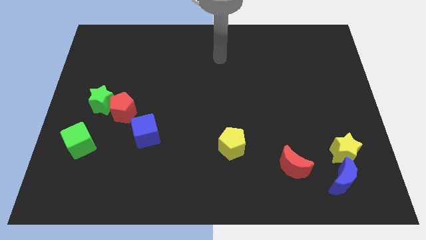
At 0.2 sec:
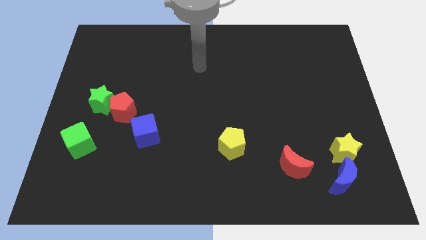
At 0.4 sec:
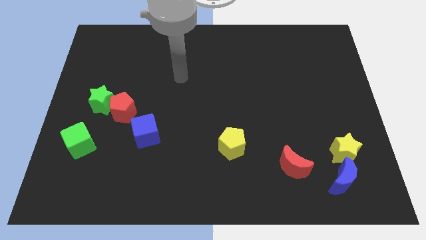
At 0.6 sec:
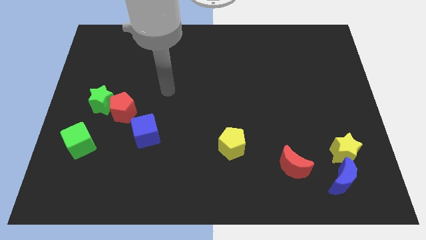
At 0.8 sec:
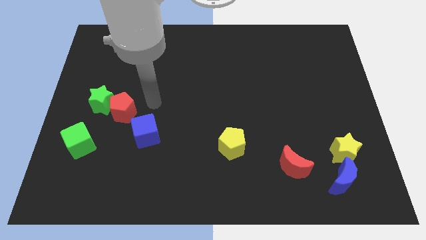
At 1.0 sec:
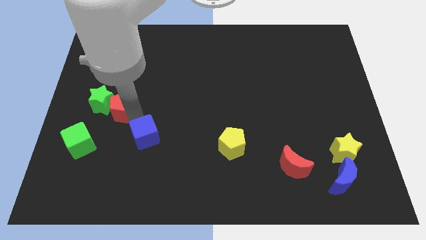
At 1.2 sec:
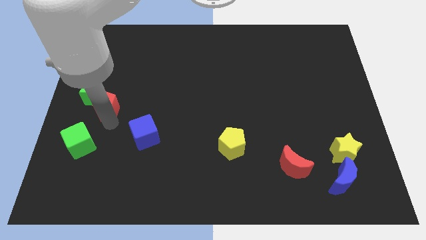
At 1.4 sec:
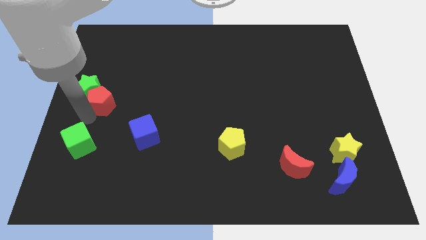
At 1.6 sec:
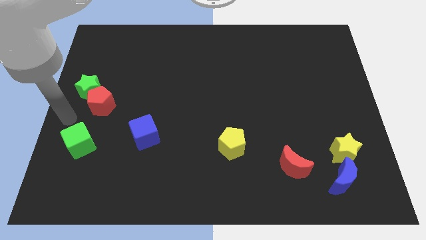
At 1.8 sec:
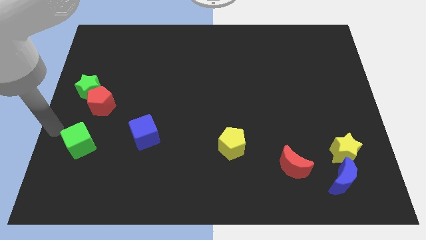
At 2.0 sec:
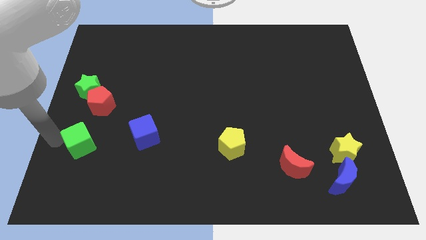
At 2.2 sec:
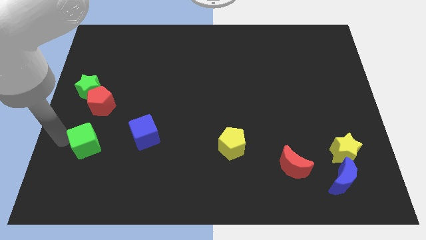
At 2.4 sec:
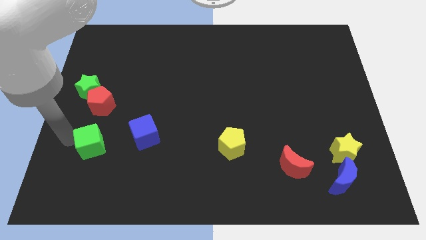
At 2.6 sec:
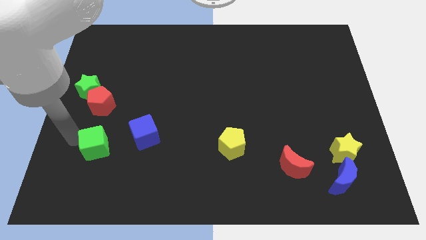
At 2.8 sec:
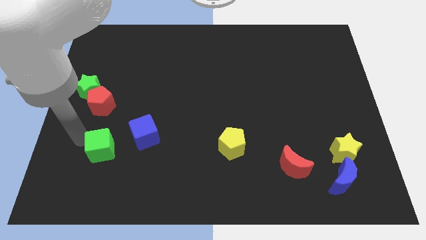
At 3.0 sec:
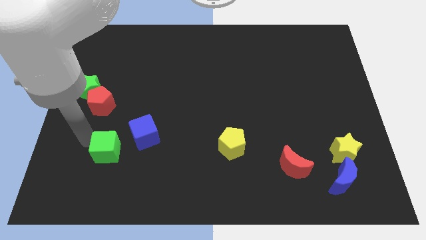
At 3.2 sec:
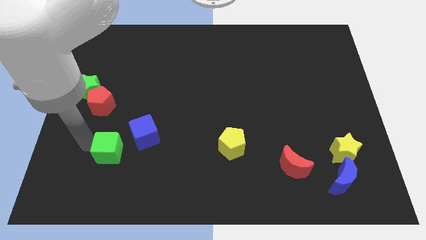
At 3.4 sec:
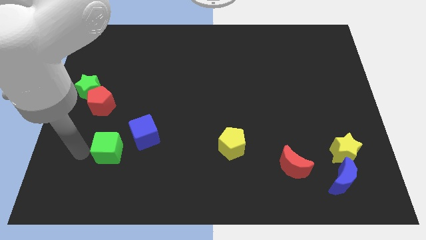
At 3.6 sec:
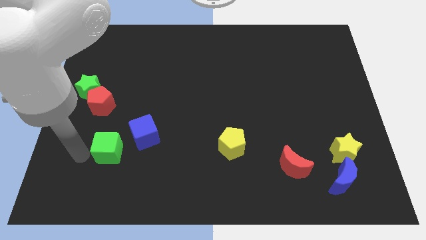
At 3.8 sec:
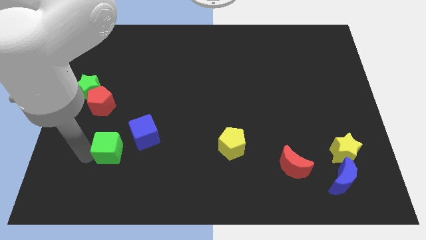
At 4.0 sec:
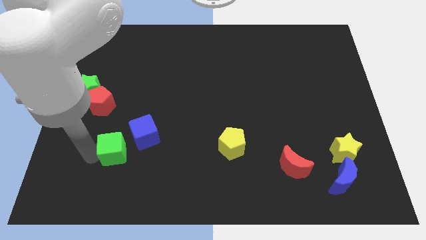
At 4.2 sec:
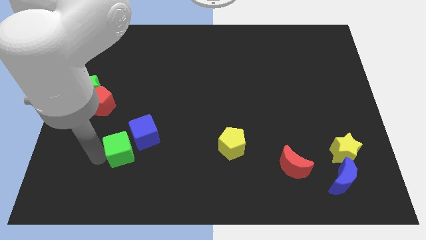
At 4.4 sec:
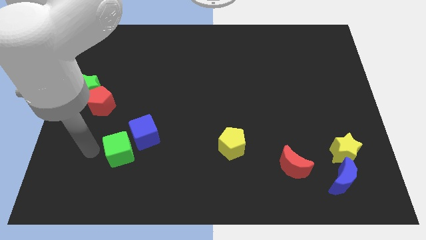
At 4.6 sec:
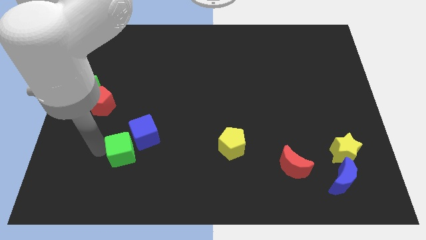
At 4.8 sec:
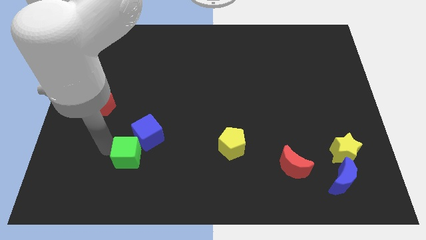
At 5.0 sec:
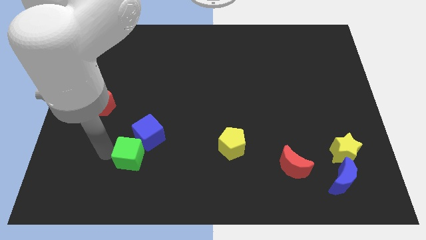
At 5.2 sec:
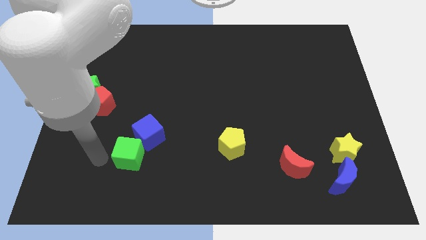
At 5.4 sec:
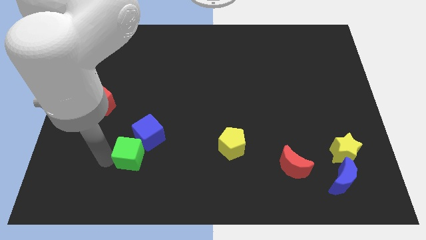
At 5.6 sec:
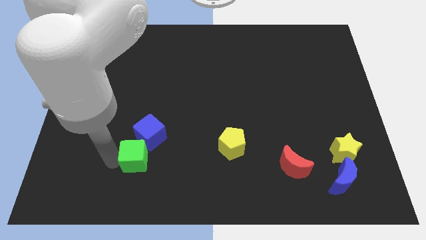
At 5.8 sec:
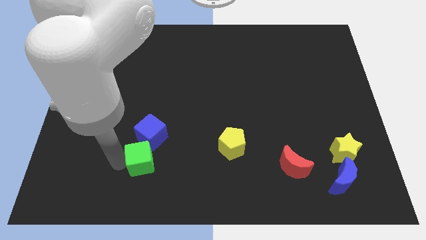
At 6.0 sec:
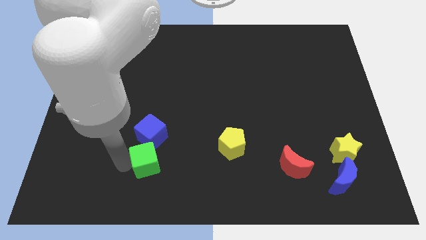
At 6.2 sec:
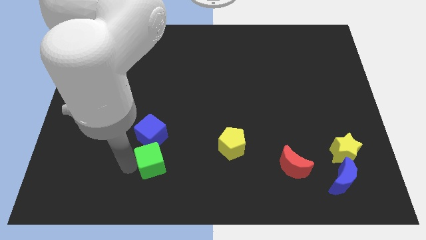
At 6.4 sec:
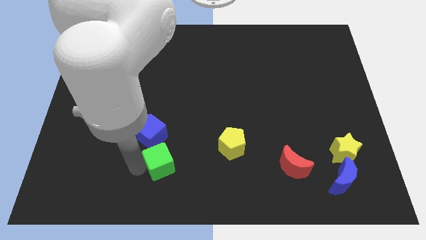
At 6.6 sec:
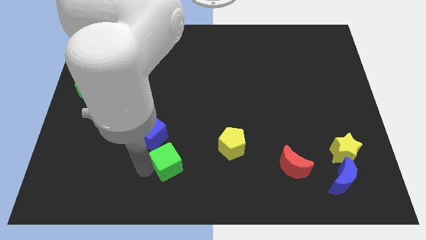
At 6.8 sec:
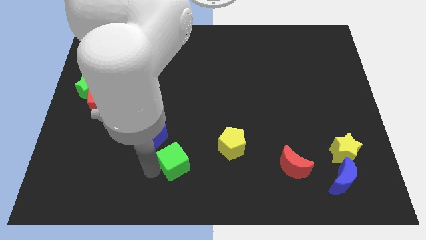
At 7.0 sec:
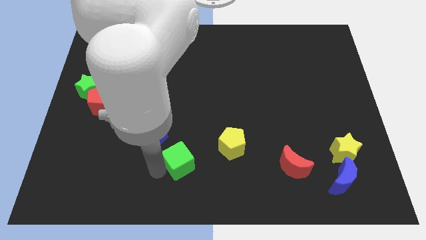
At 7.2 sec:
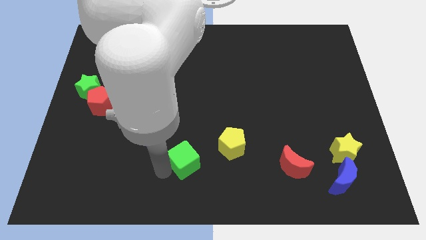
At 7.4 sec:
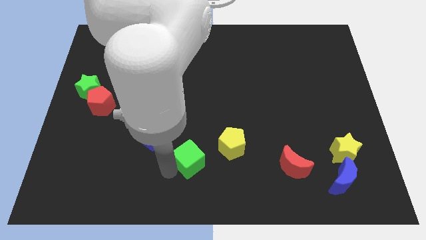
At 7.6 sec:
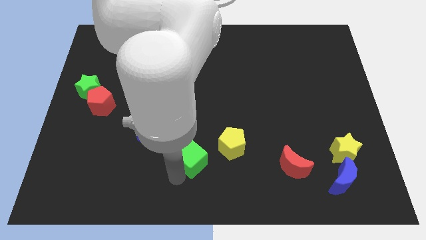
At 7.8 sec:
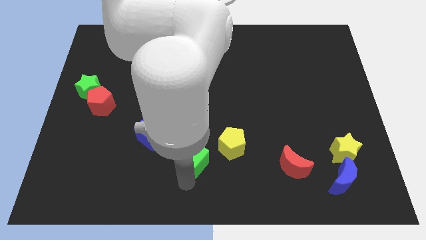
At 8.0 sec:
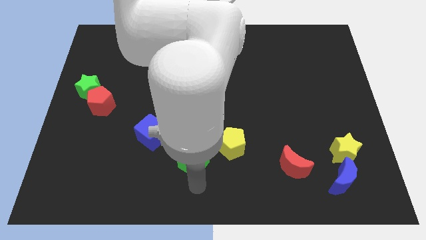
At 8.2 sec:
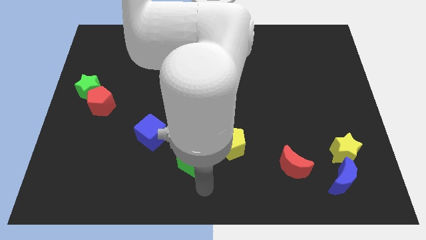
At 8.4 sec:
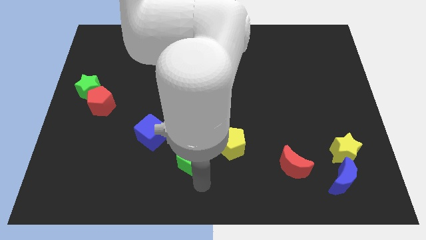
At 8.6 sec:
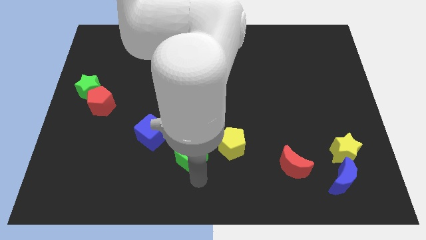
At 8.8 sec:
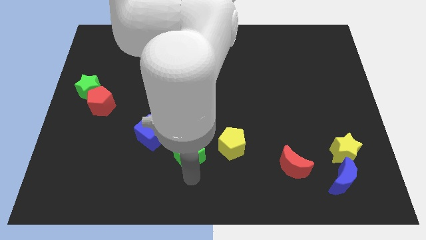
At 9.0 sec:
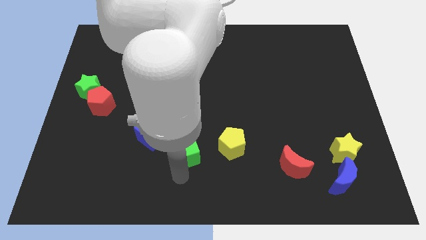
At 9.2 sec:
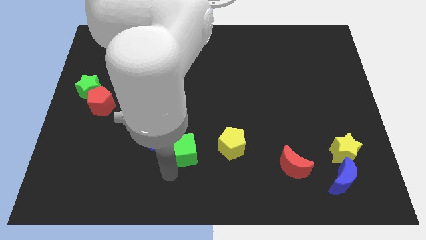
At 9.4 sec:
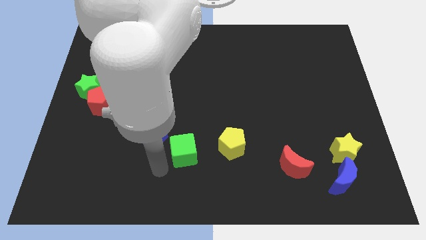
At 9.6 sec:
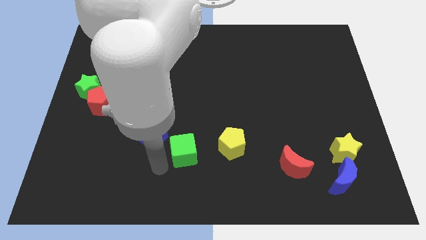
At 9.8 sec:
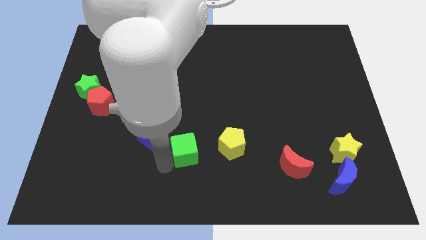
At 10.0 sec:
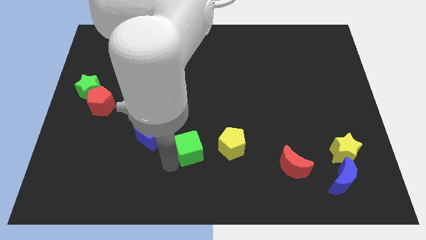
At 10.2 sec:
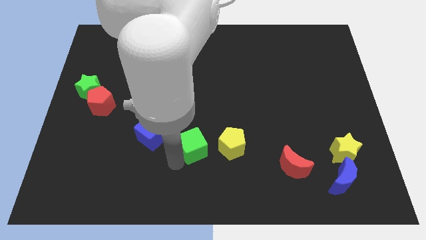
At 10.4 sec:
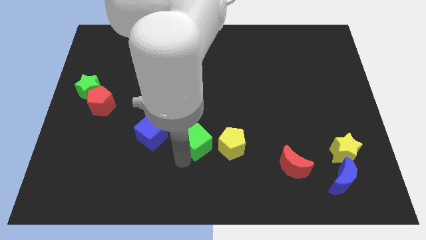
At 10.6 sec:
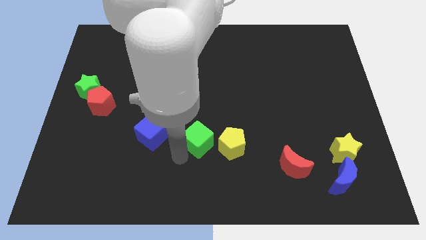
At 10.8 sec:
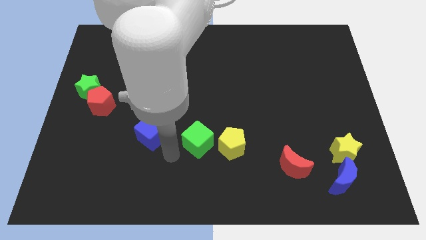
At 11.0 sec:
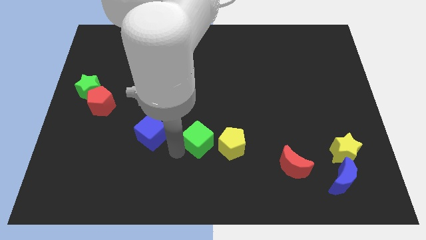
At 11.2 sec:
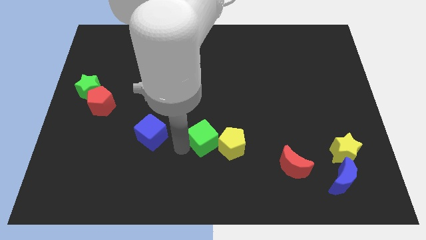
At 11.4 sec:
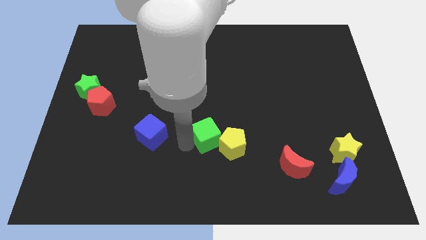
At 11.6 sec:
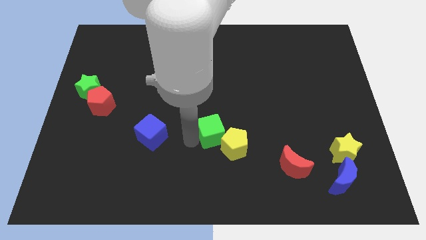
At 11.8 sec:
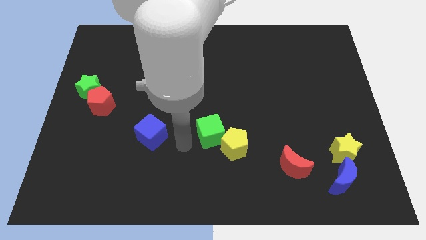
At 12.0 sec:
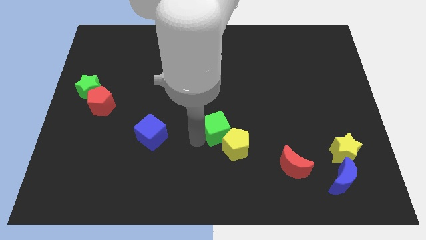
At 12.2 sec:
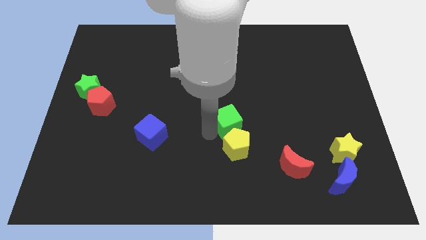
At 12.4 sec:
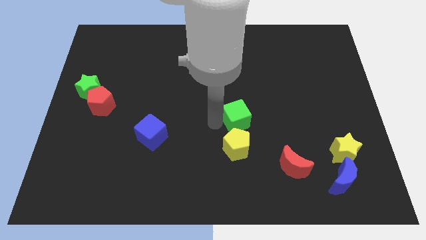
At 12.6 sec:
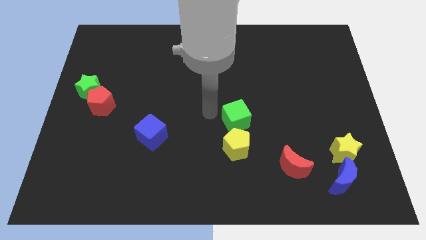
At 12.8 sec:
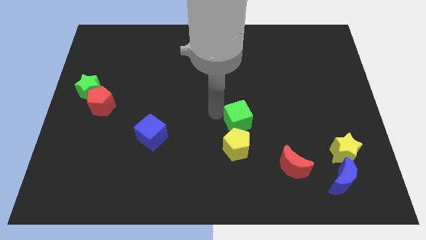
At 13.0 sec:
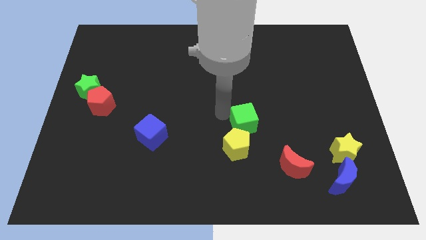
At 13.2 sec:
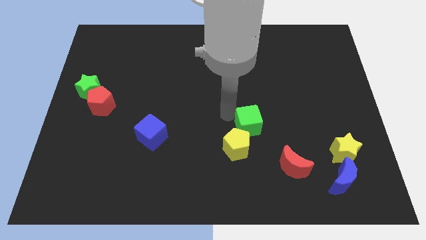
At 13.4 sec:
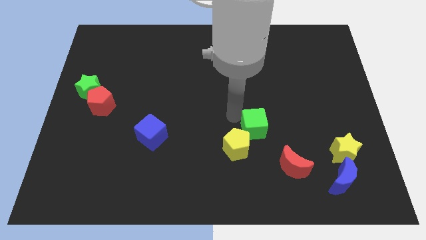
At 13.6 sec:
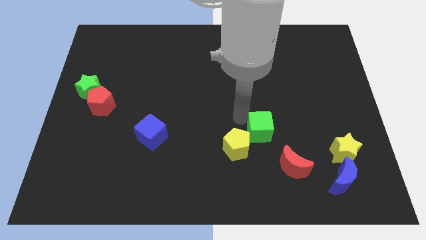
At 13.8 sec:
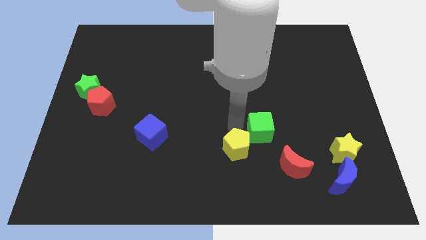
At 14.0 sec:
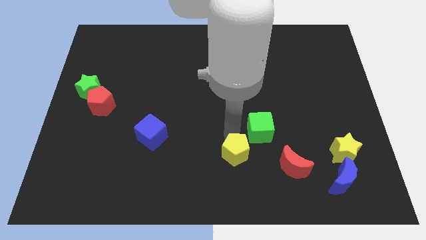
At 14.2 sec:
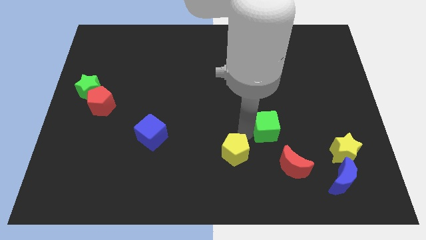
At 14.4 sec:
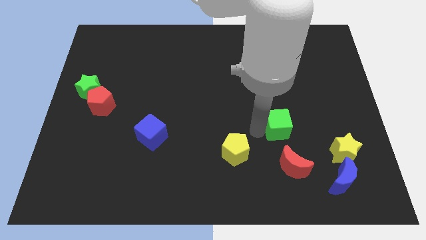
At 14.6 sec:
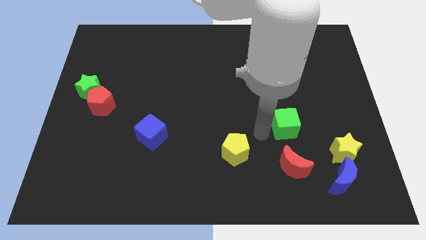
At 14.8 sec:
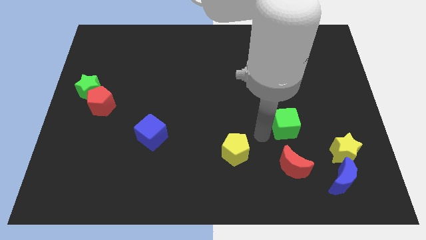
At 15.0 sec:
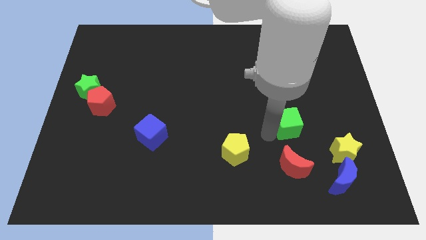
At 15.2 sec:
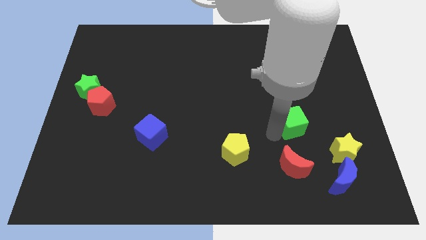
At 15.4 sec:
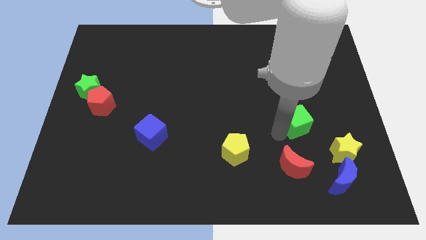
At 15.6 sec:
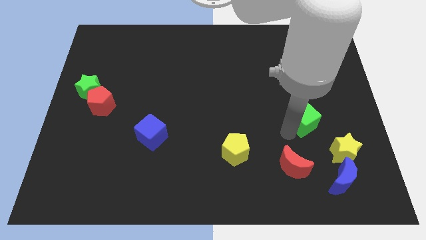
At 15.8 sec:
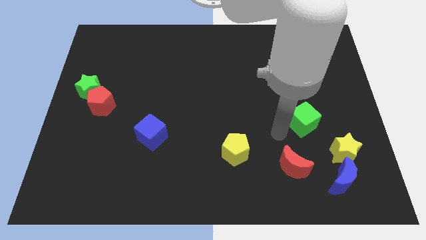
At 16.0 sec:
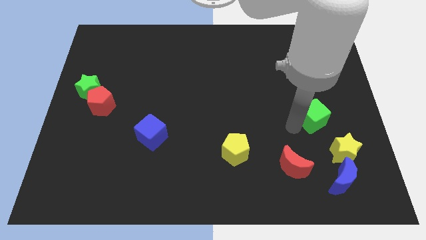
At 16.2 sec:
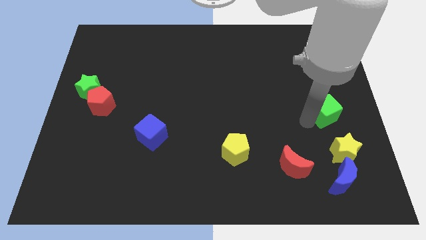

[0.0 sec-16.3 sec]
move the green cube to the right side of the board
